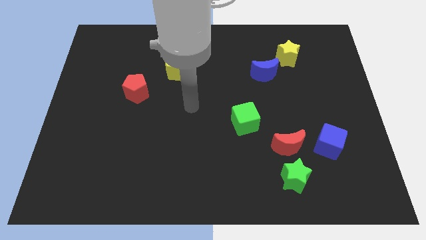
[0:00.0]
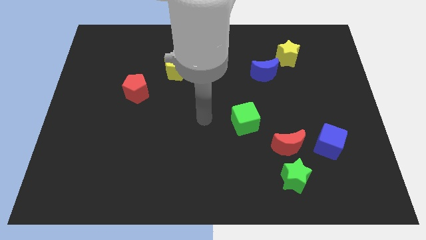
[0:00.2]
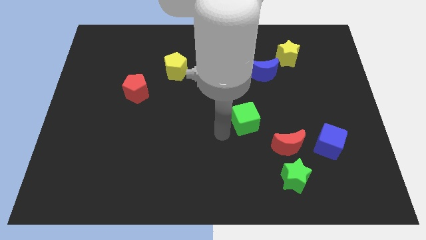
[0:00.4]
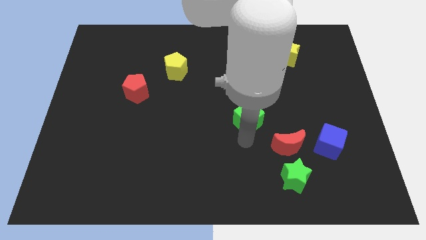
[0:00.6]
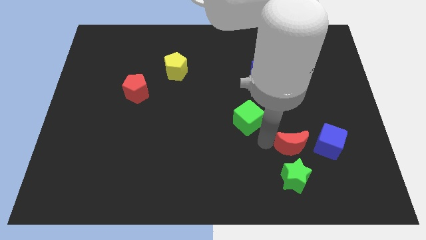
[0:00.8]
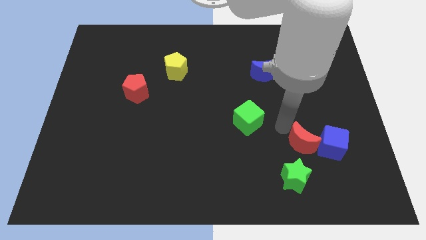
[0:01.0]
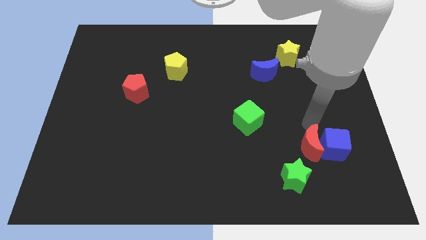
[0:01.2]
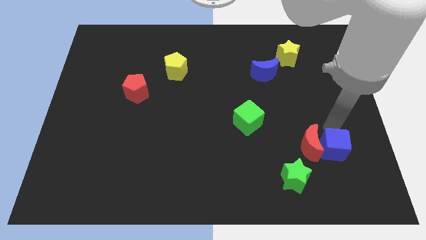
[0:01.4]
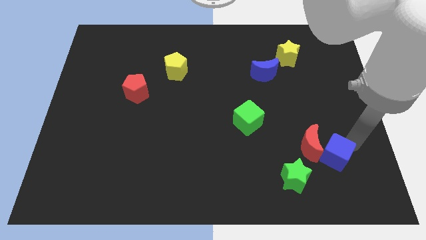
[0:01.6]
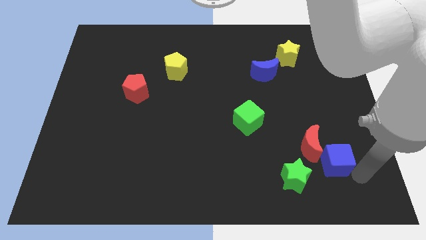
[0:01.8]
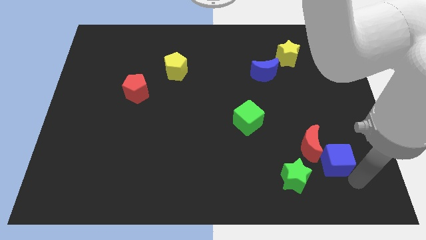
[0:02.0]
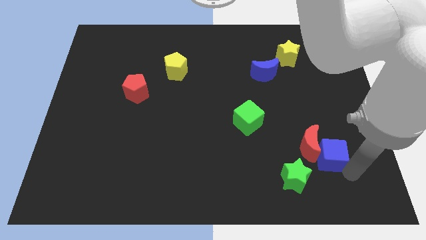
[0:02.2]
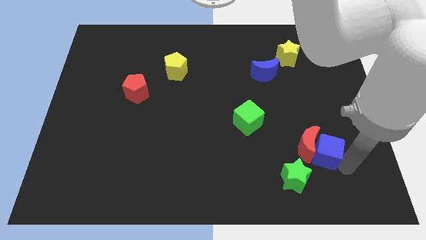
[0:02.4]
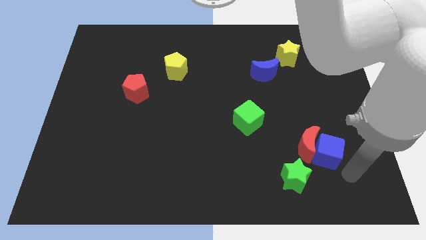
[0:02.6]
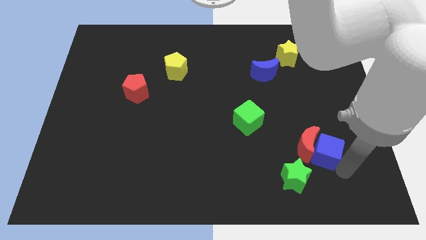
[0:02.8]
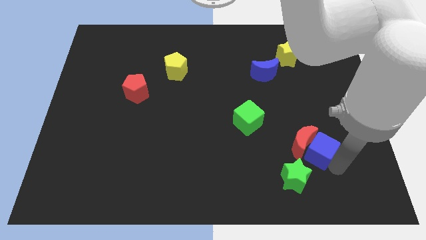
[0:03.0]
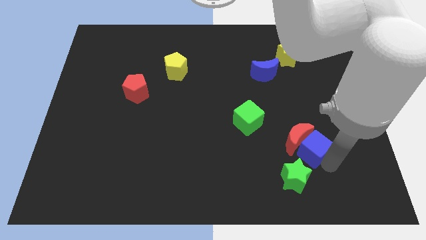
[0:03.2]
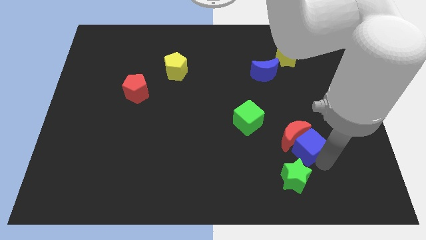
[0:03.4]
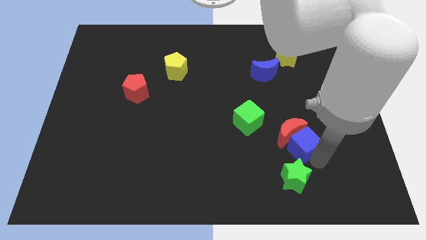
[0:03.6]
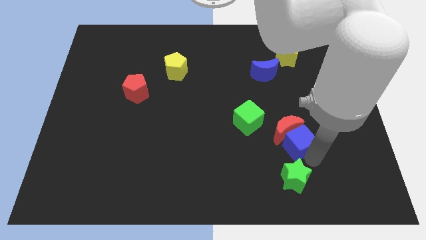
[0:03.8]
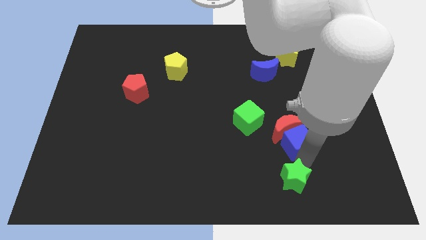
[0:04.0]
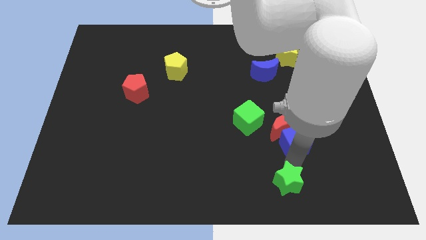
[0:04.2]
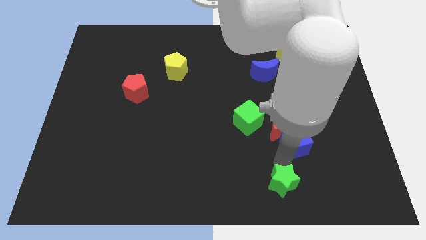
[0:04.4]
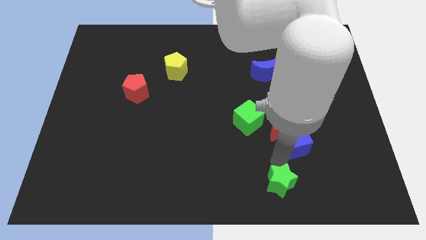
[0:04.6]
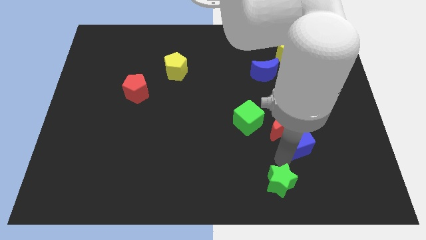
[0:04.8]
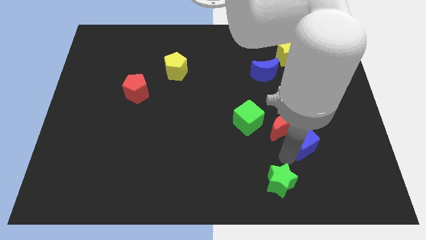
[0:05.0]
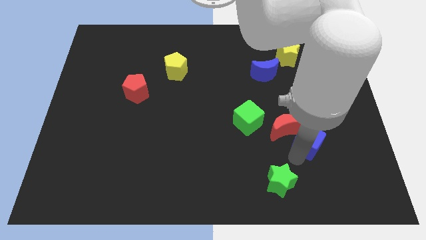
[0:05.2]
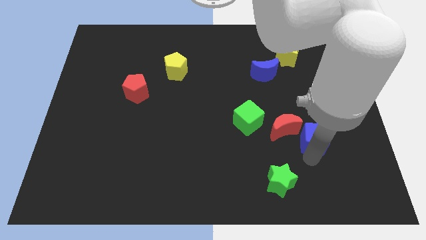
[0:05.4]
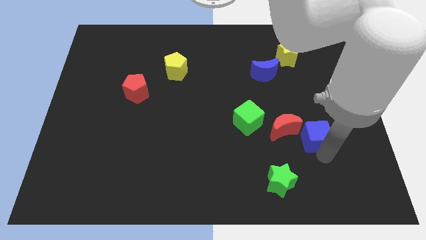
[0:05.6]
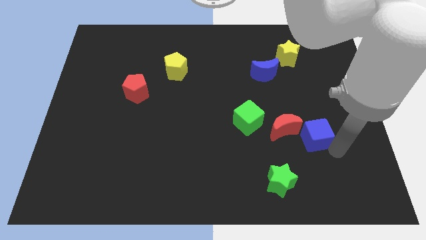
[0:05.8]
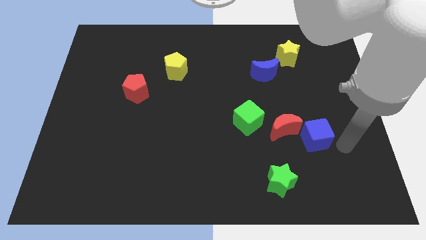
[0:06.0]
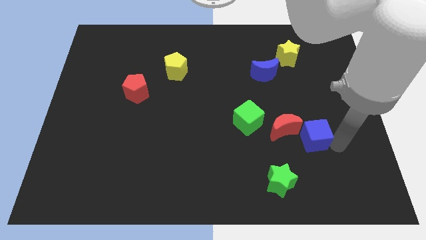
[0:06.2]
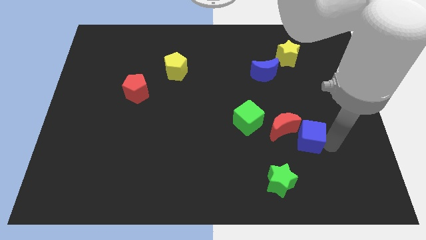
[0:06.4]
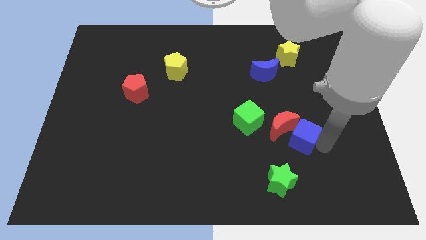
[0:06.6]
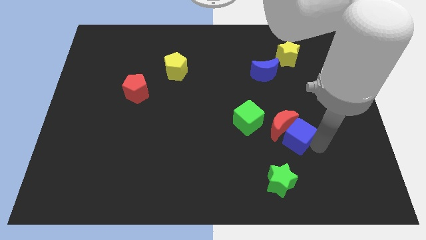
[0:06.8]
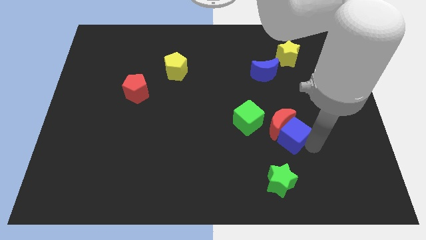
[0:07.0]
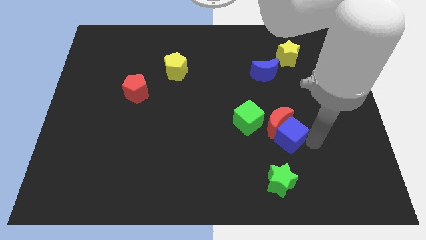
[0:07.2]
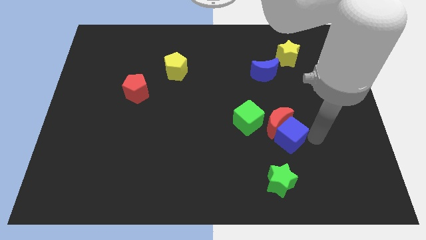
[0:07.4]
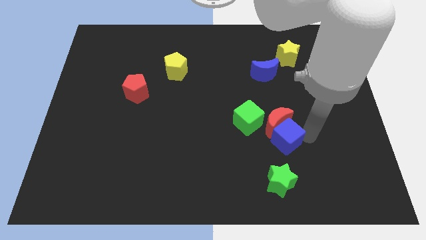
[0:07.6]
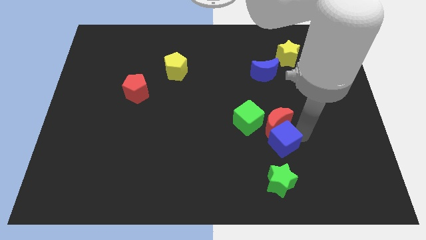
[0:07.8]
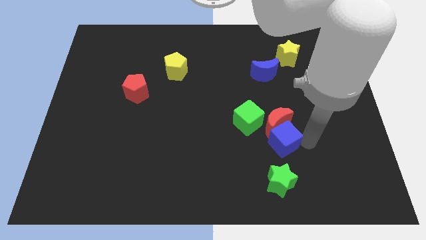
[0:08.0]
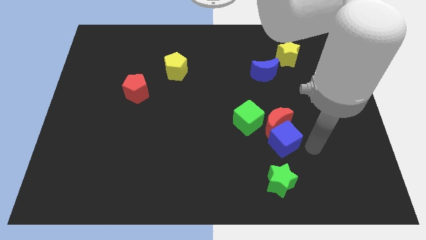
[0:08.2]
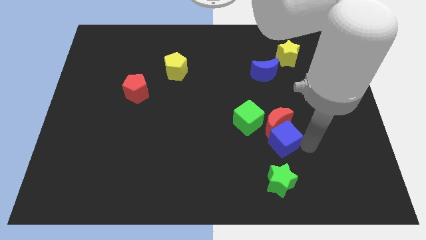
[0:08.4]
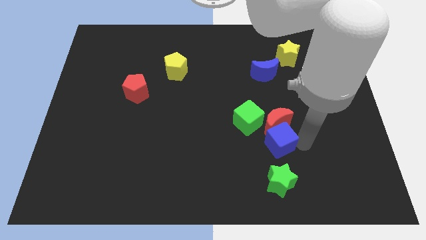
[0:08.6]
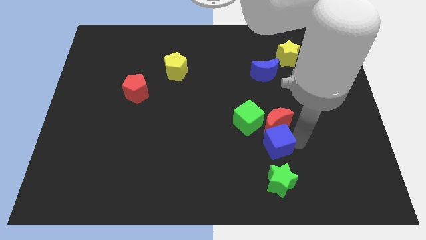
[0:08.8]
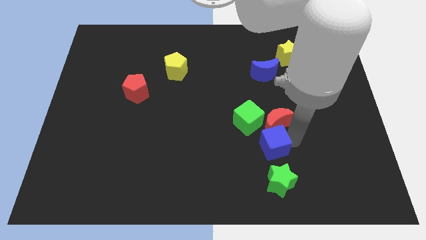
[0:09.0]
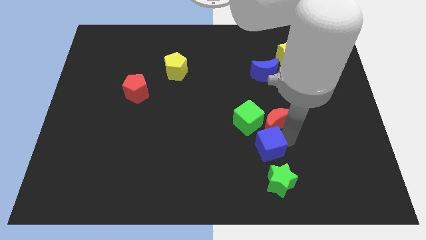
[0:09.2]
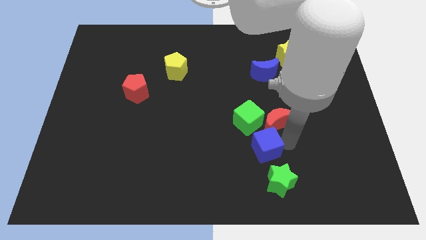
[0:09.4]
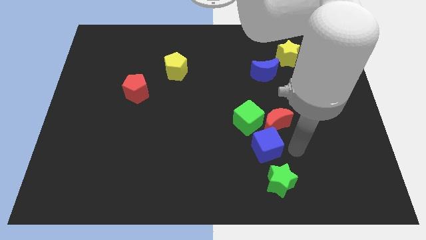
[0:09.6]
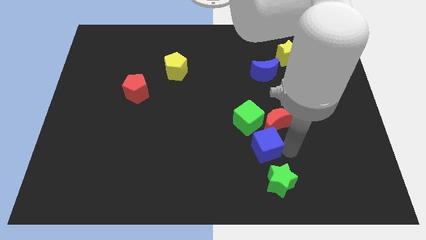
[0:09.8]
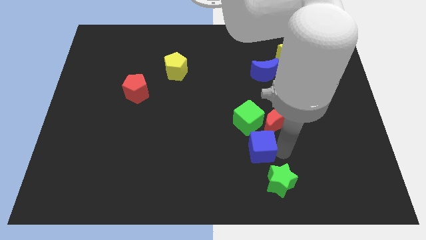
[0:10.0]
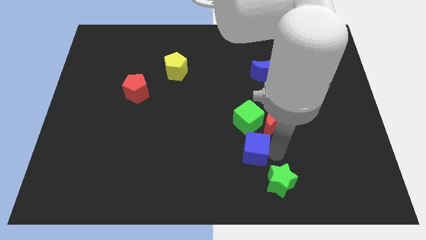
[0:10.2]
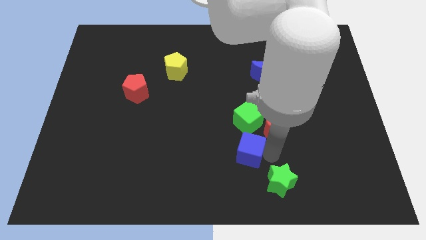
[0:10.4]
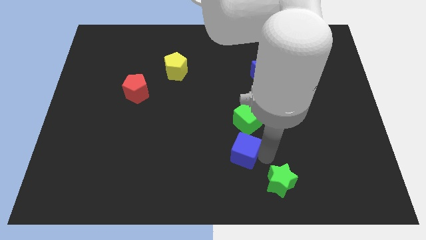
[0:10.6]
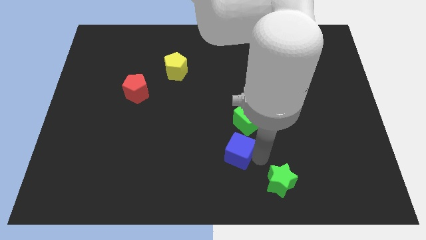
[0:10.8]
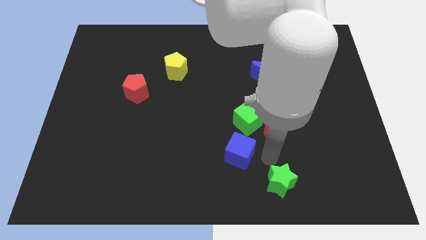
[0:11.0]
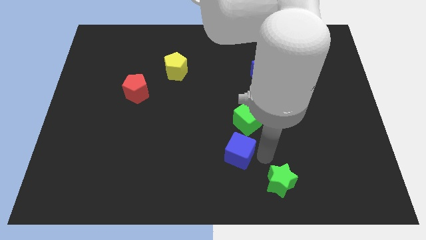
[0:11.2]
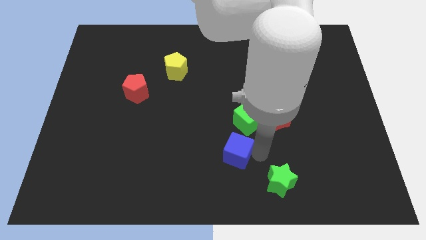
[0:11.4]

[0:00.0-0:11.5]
push the blue cube to the left

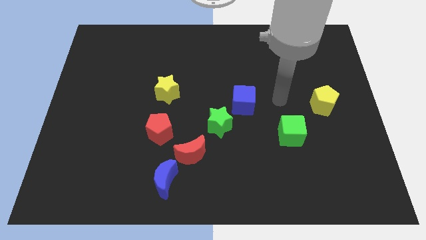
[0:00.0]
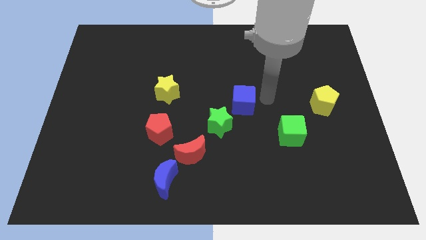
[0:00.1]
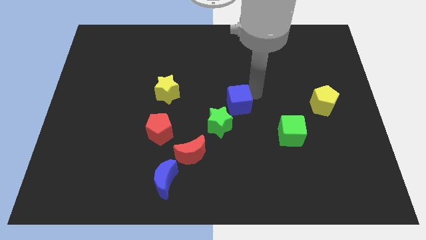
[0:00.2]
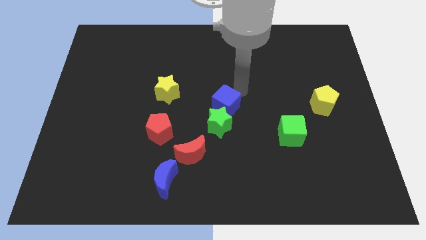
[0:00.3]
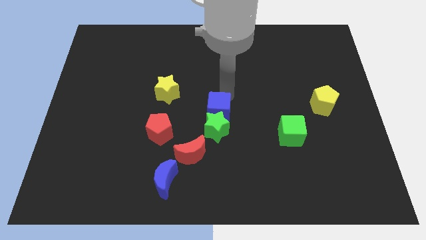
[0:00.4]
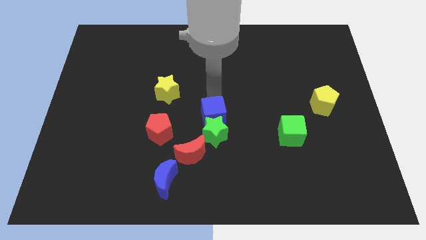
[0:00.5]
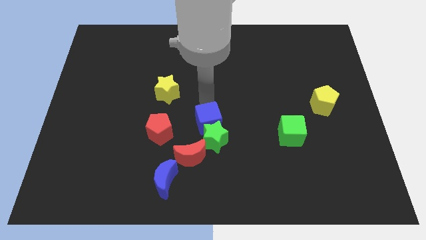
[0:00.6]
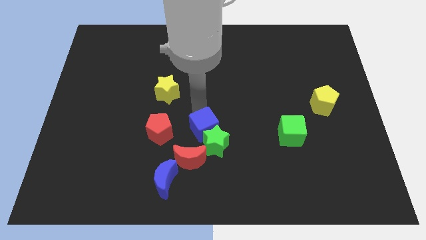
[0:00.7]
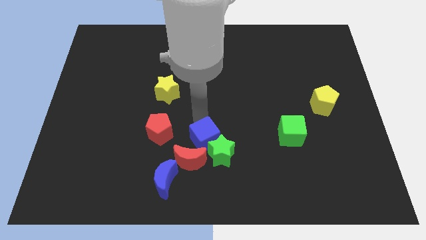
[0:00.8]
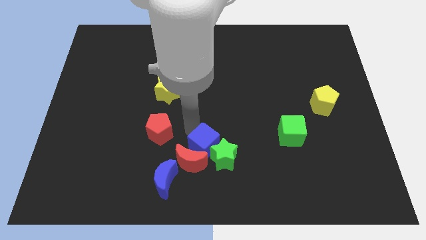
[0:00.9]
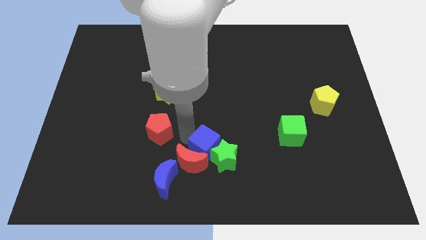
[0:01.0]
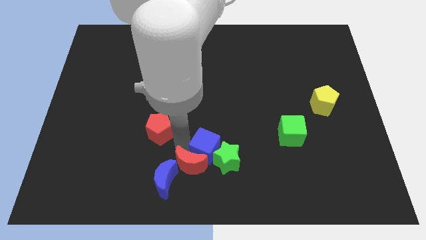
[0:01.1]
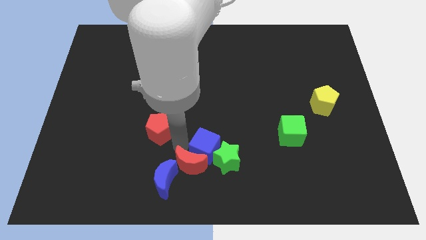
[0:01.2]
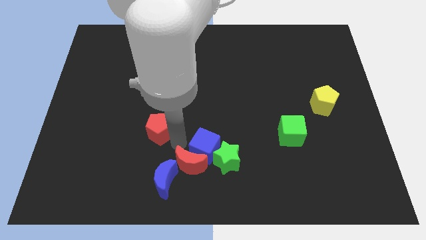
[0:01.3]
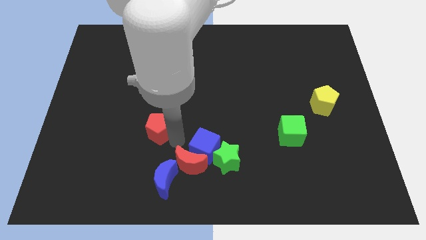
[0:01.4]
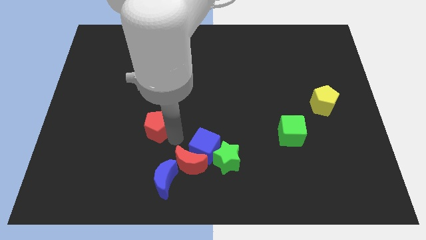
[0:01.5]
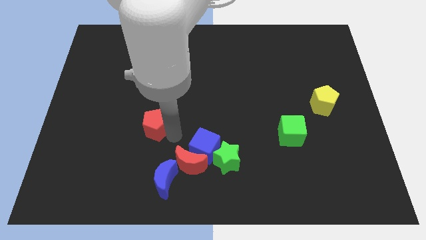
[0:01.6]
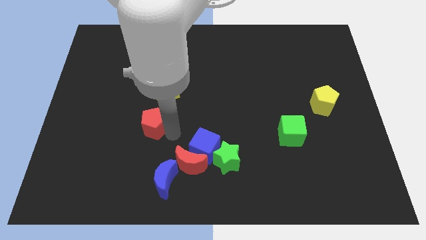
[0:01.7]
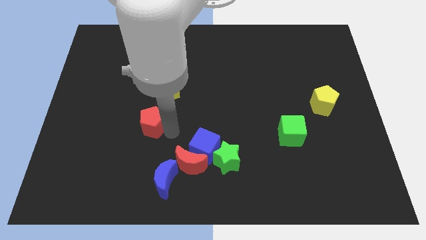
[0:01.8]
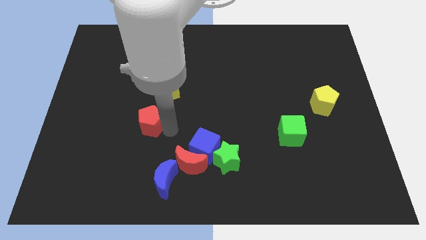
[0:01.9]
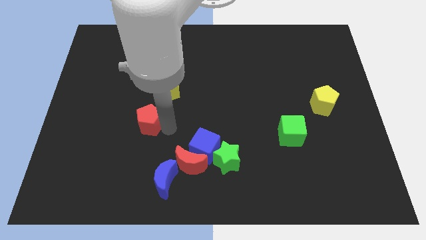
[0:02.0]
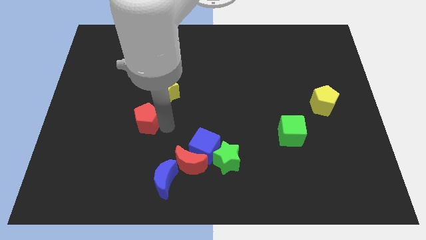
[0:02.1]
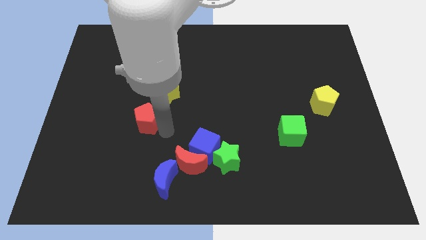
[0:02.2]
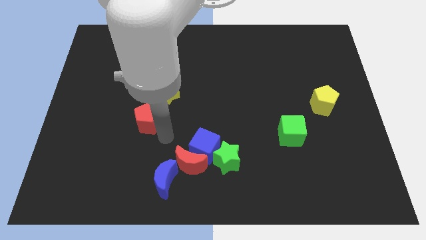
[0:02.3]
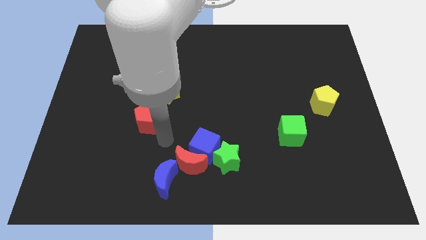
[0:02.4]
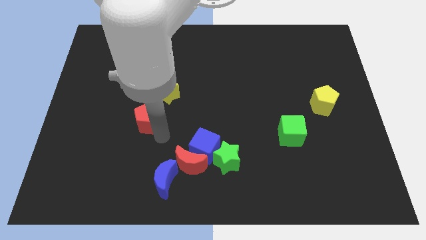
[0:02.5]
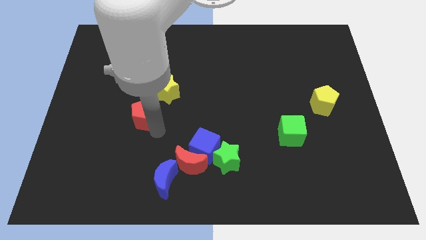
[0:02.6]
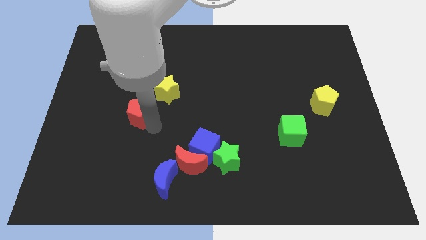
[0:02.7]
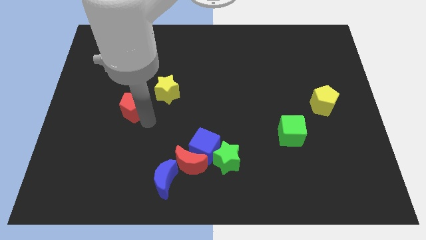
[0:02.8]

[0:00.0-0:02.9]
slightly slide the red pentagon upwards and to the left
